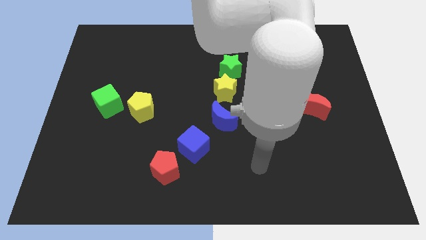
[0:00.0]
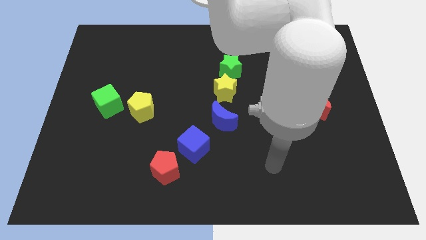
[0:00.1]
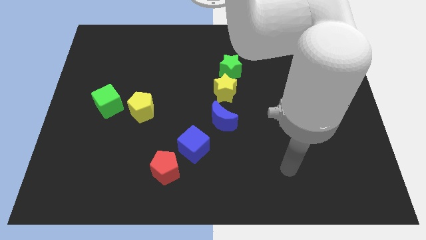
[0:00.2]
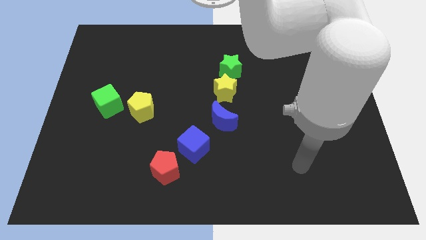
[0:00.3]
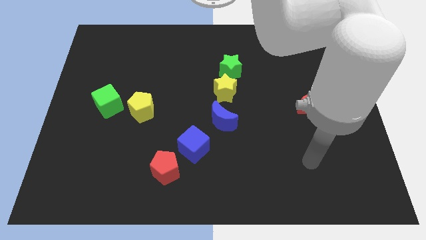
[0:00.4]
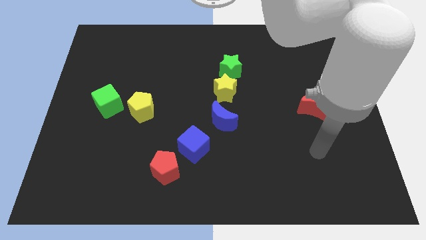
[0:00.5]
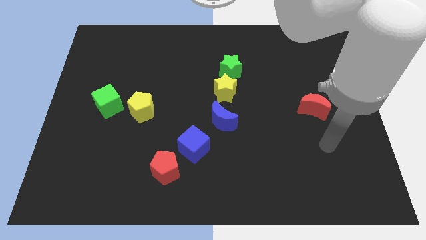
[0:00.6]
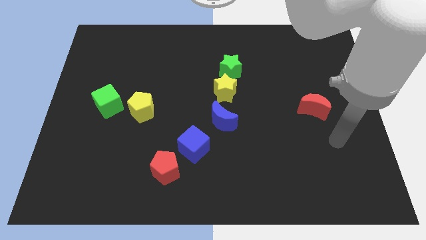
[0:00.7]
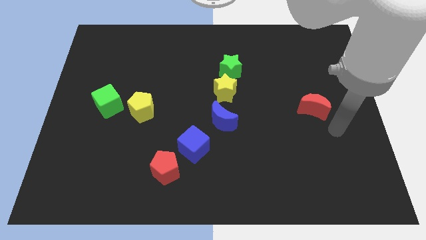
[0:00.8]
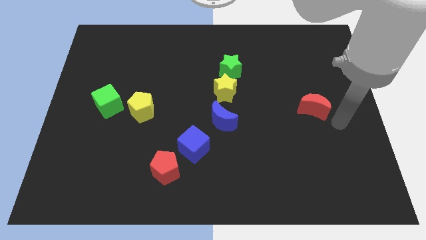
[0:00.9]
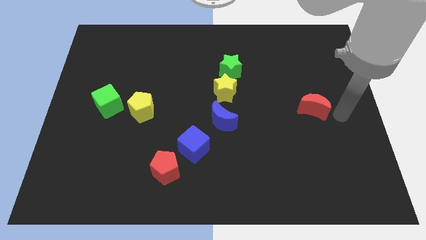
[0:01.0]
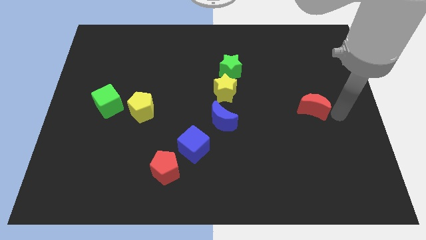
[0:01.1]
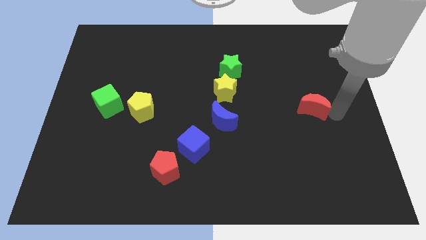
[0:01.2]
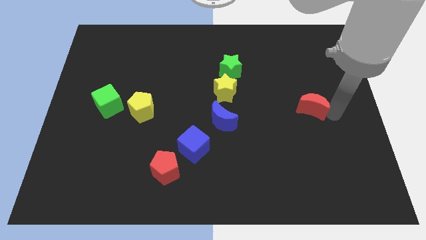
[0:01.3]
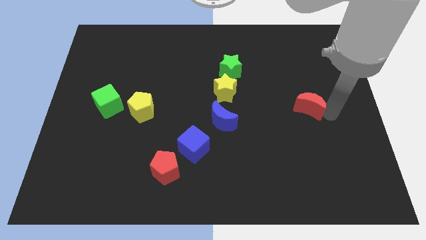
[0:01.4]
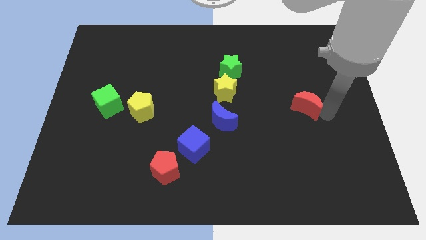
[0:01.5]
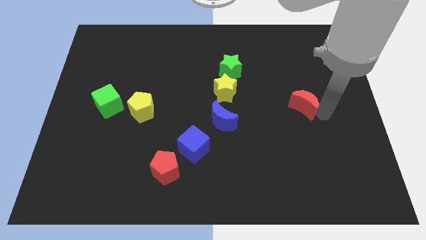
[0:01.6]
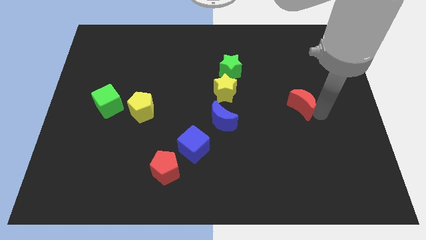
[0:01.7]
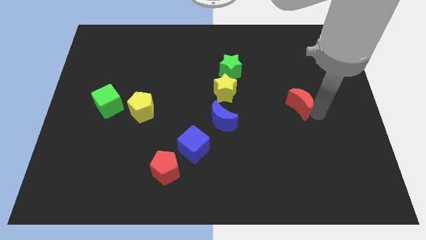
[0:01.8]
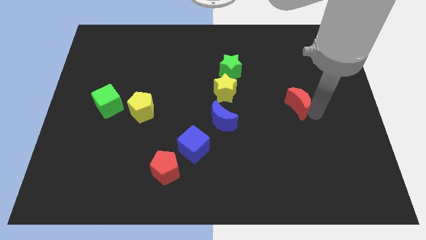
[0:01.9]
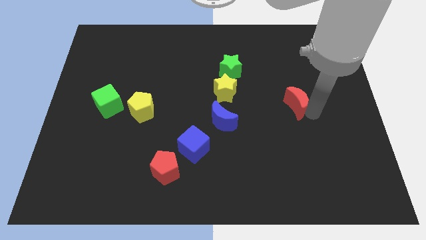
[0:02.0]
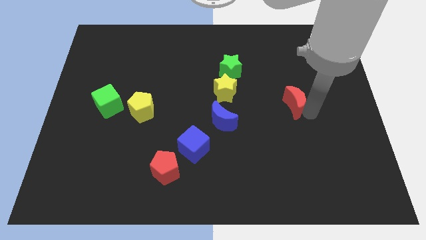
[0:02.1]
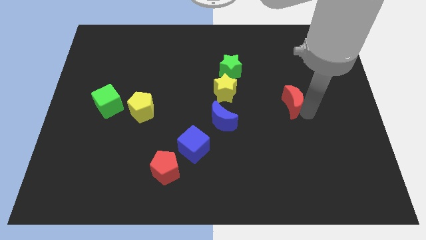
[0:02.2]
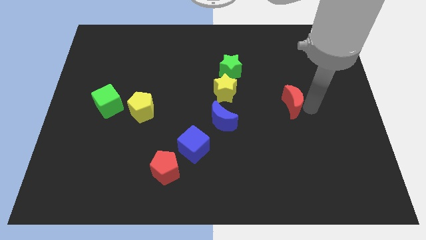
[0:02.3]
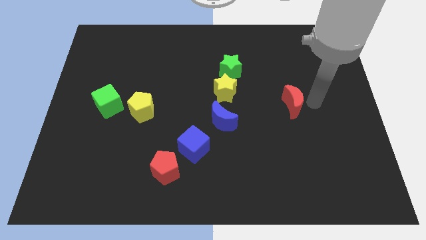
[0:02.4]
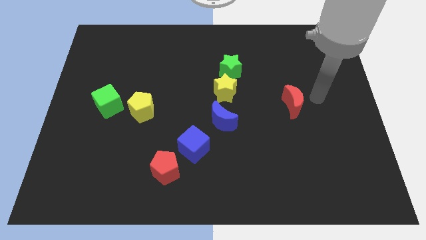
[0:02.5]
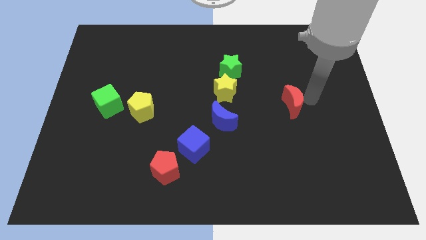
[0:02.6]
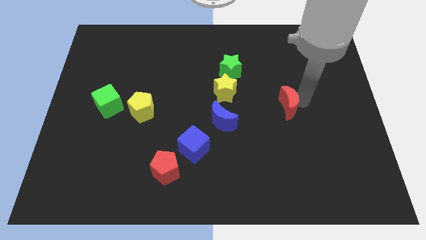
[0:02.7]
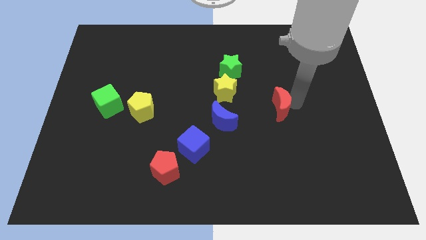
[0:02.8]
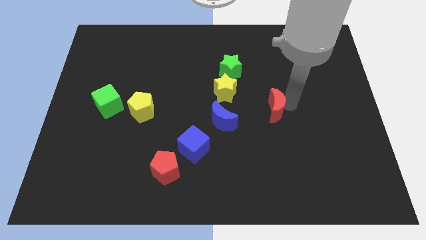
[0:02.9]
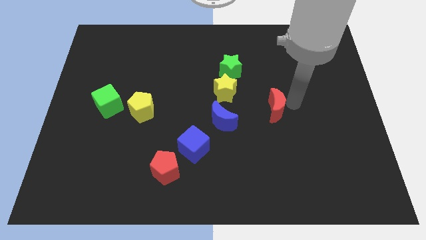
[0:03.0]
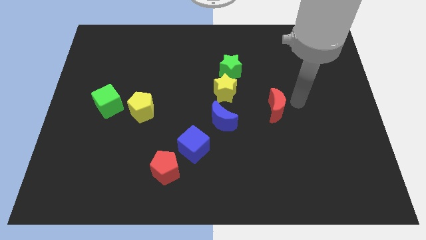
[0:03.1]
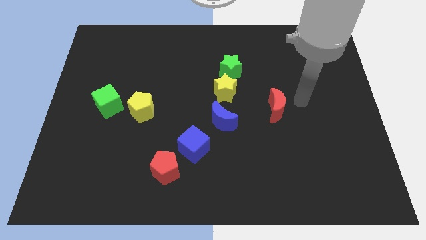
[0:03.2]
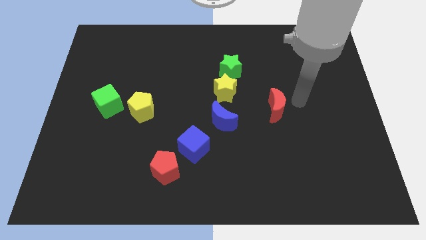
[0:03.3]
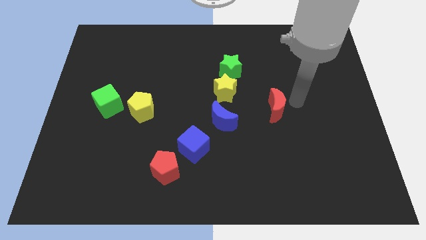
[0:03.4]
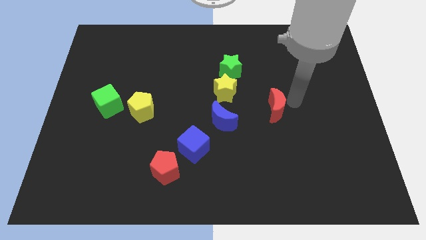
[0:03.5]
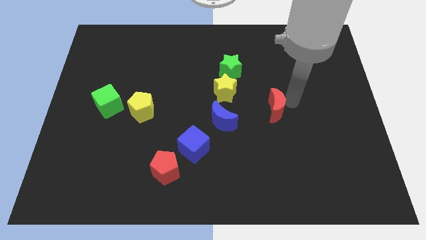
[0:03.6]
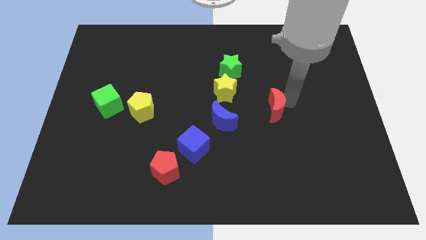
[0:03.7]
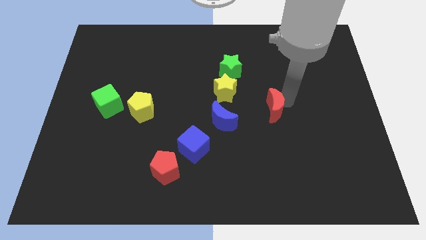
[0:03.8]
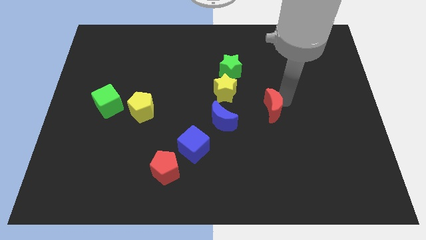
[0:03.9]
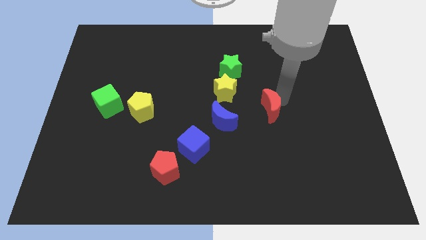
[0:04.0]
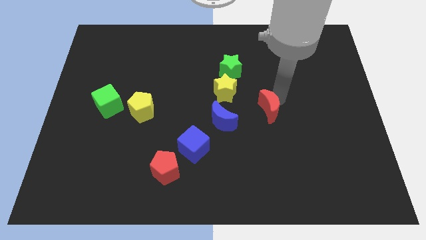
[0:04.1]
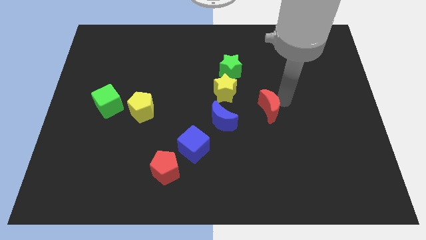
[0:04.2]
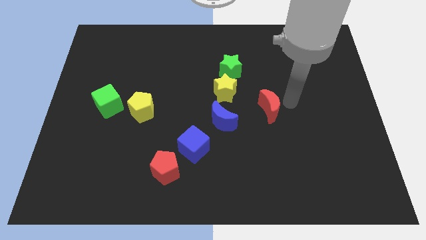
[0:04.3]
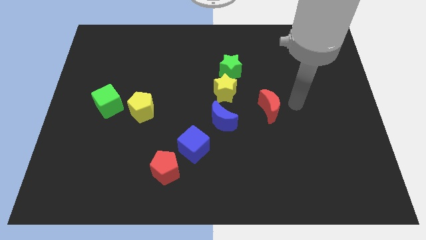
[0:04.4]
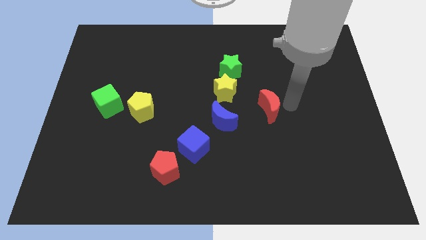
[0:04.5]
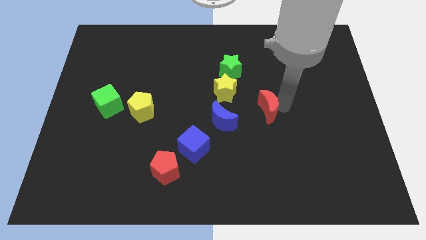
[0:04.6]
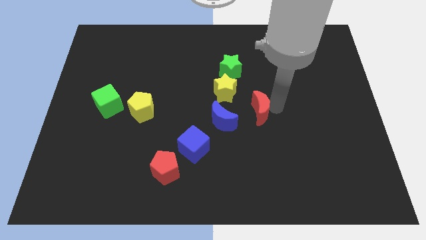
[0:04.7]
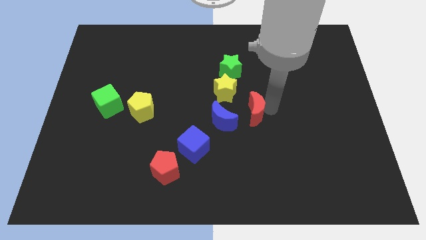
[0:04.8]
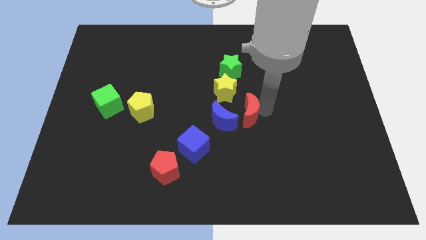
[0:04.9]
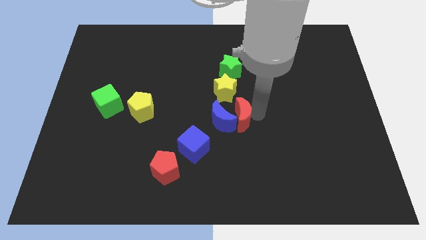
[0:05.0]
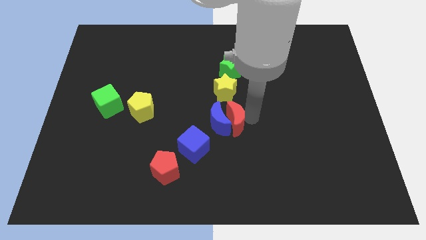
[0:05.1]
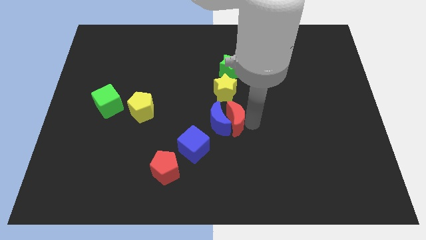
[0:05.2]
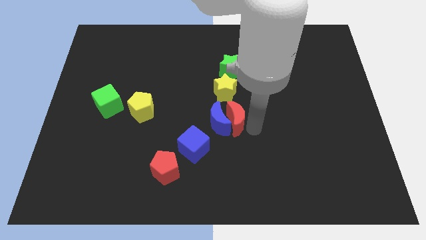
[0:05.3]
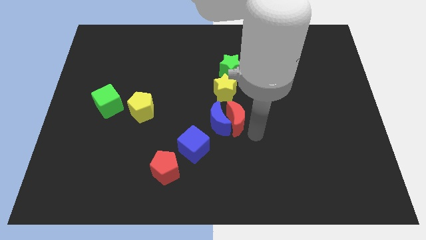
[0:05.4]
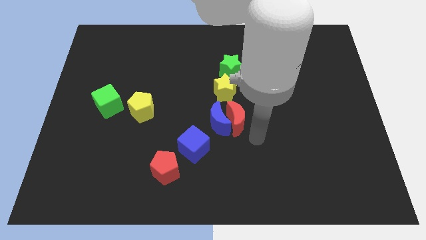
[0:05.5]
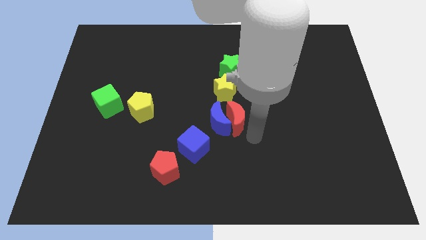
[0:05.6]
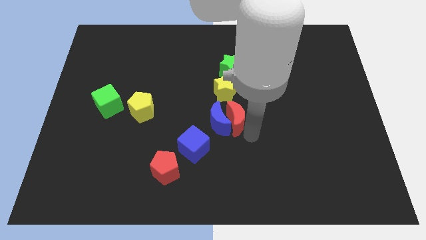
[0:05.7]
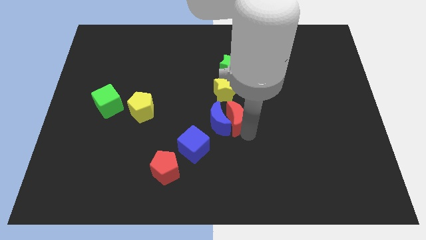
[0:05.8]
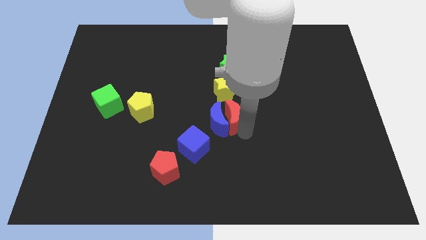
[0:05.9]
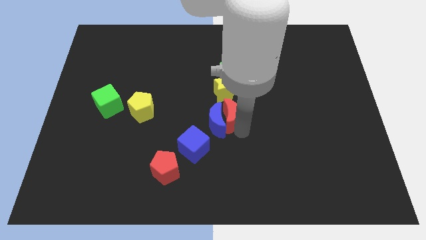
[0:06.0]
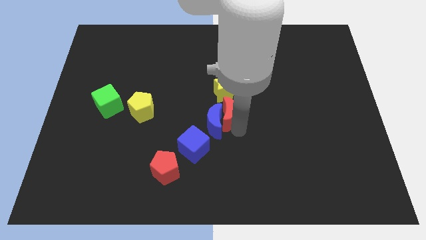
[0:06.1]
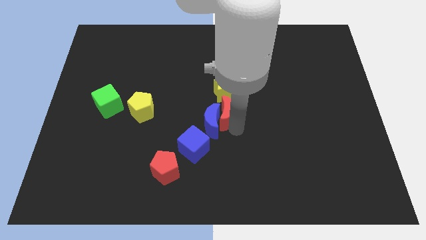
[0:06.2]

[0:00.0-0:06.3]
move the red moon left

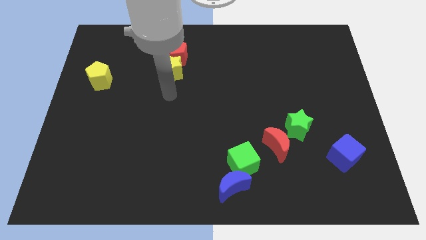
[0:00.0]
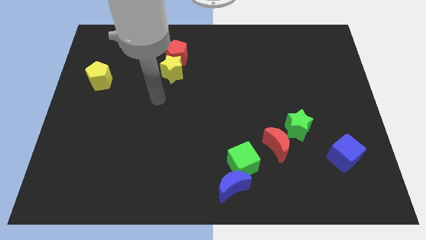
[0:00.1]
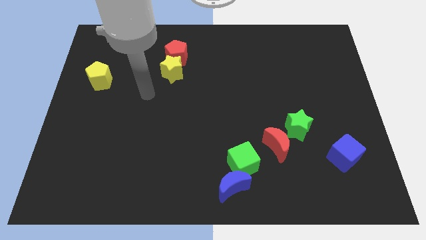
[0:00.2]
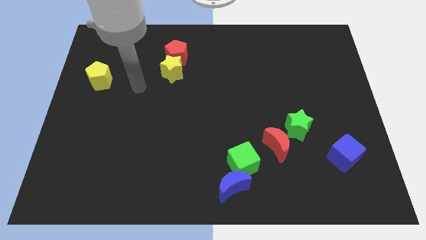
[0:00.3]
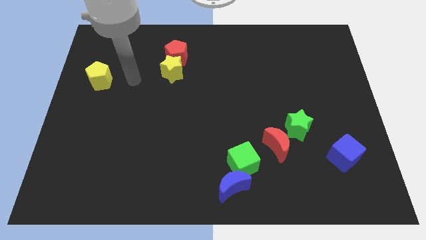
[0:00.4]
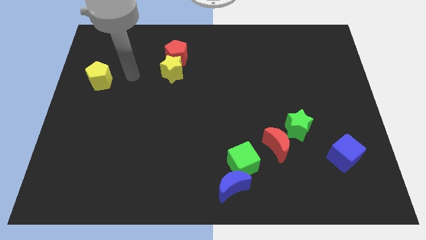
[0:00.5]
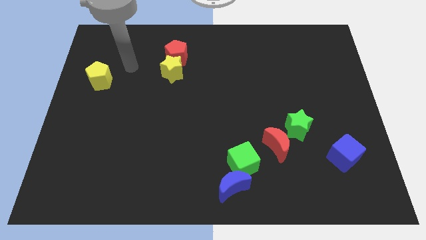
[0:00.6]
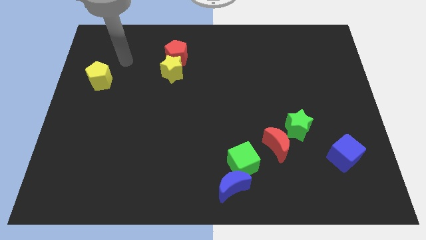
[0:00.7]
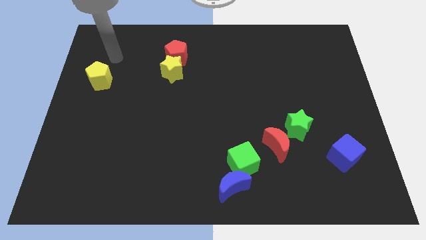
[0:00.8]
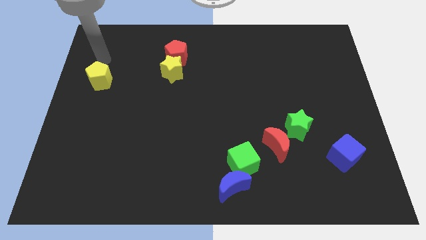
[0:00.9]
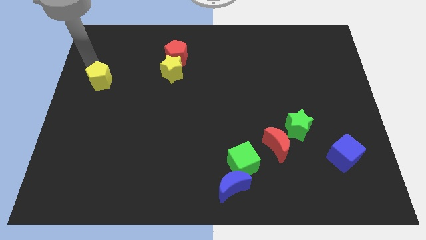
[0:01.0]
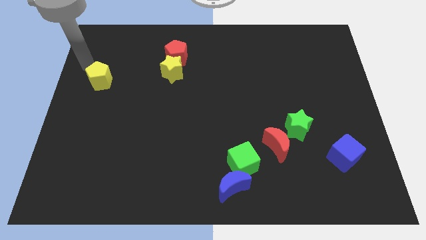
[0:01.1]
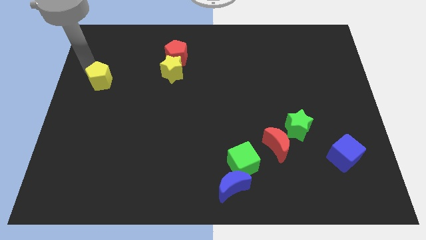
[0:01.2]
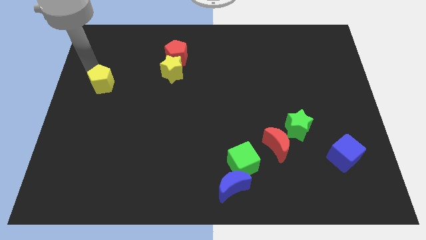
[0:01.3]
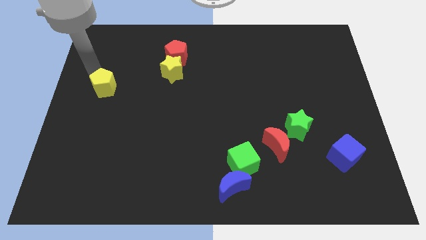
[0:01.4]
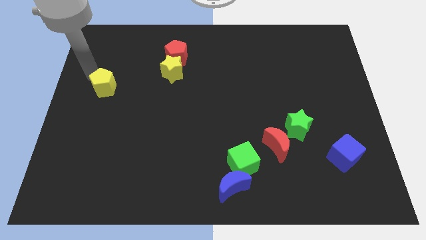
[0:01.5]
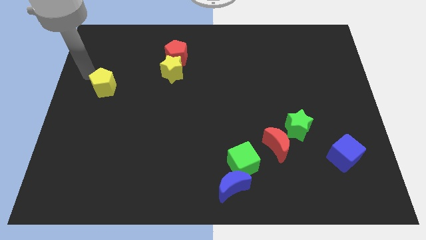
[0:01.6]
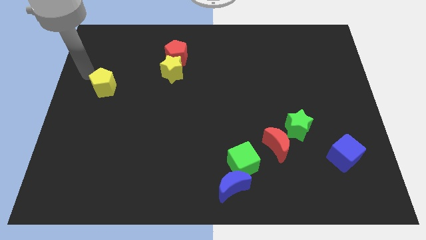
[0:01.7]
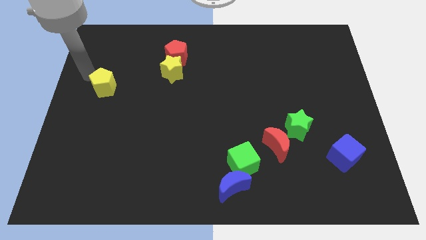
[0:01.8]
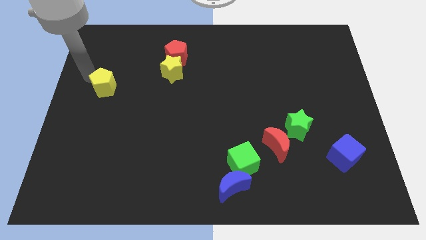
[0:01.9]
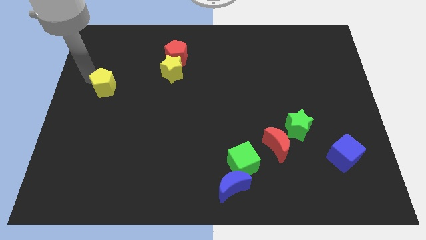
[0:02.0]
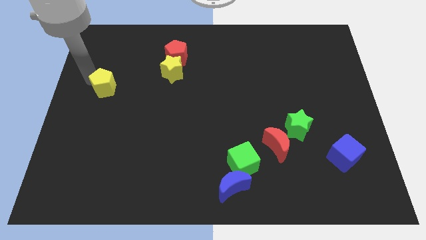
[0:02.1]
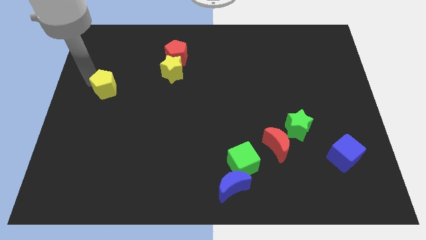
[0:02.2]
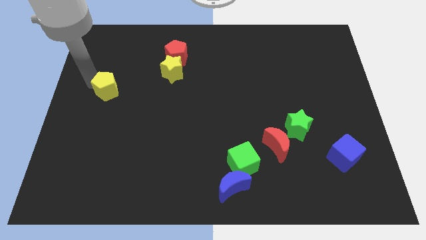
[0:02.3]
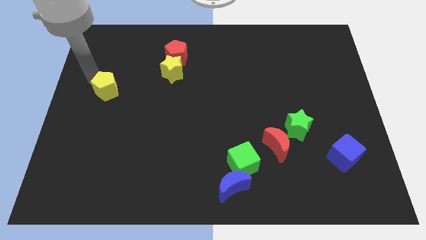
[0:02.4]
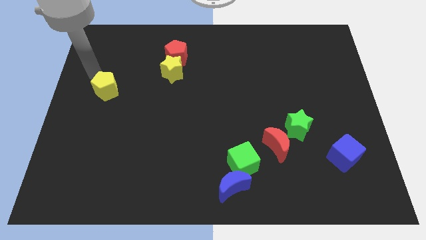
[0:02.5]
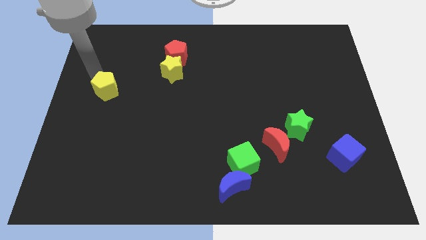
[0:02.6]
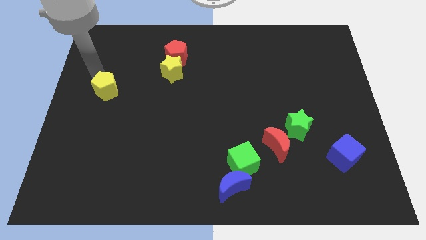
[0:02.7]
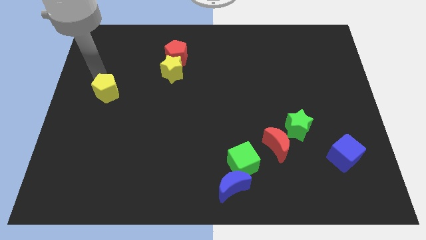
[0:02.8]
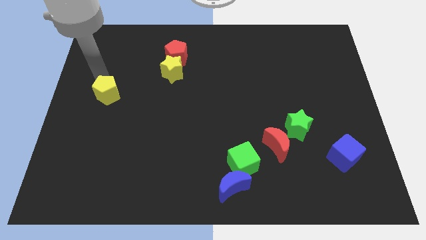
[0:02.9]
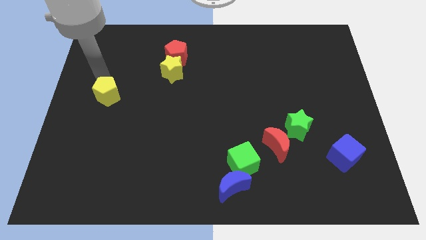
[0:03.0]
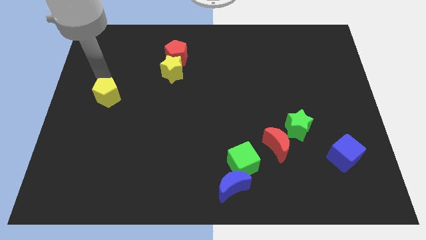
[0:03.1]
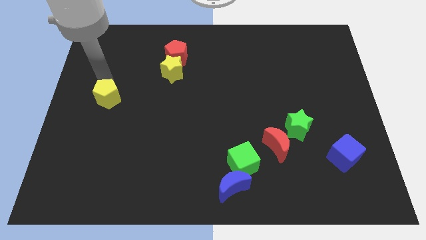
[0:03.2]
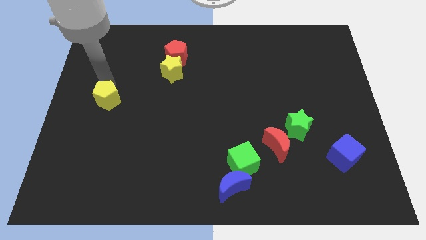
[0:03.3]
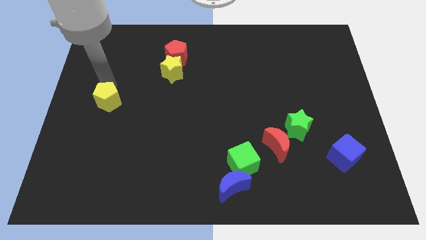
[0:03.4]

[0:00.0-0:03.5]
push the yellow pentagon down and to the right diagonally slightly
